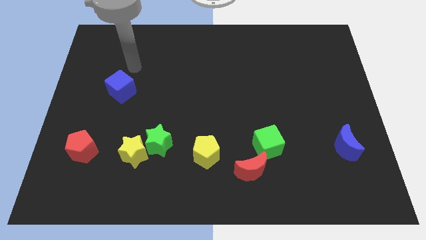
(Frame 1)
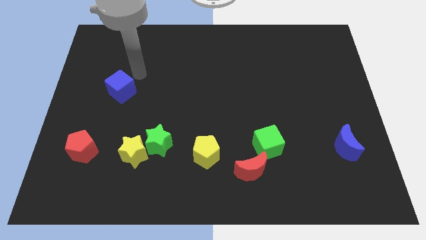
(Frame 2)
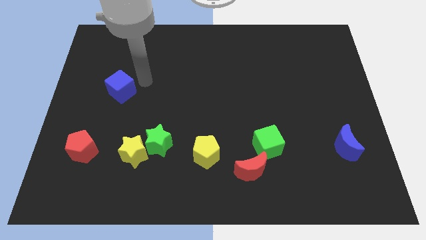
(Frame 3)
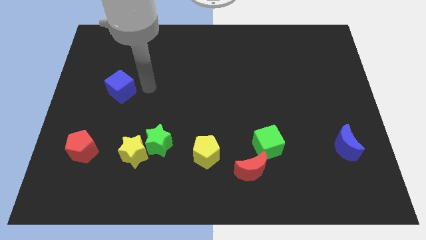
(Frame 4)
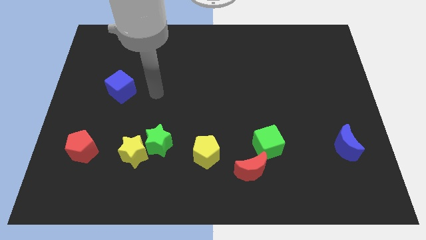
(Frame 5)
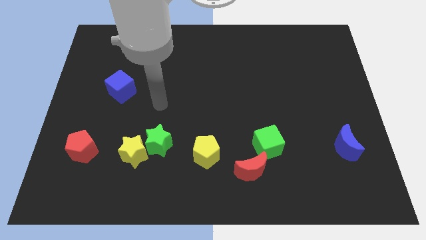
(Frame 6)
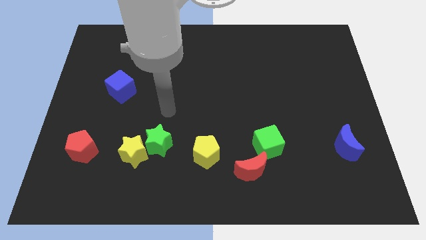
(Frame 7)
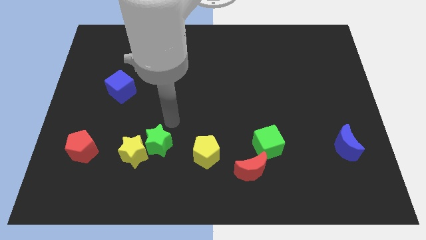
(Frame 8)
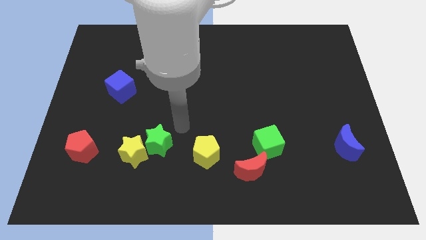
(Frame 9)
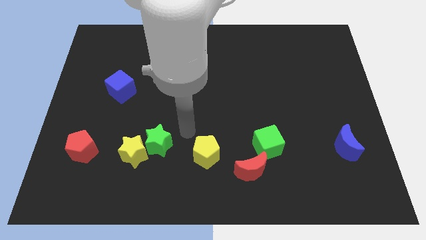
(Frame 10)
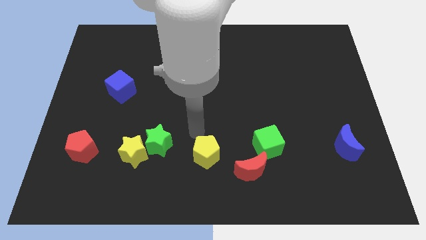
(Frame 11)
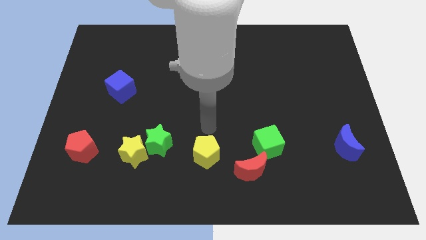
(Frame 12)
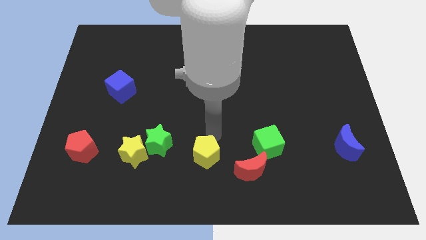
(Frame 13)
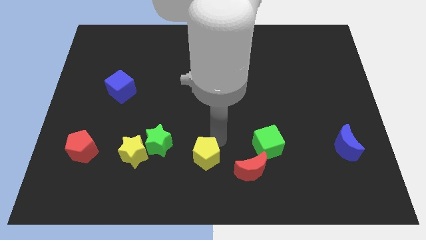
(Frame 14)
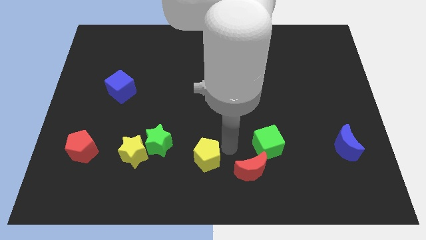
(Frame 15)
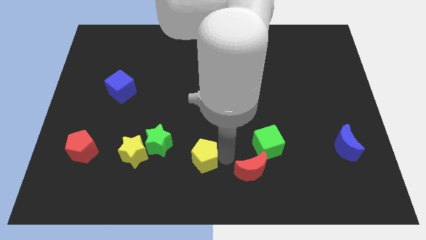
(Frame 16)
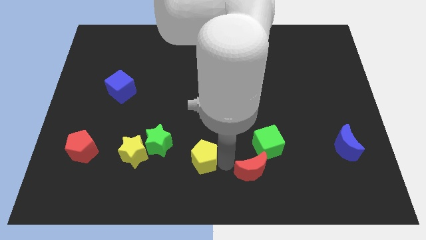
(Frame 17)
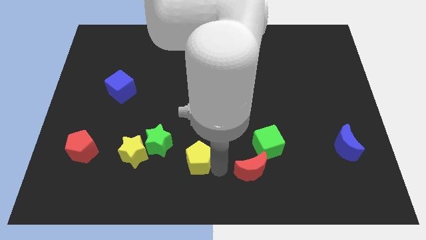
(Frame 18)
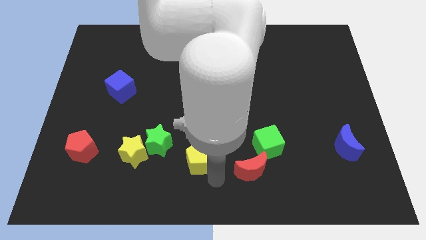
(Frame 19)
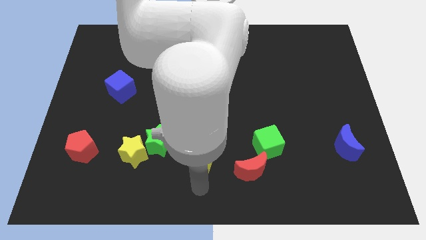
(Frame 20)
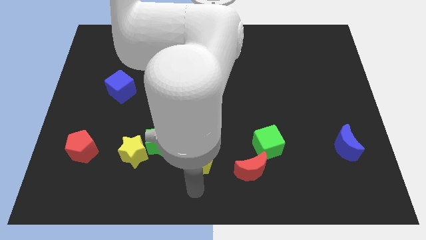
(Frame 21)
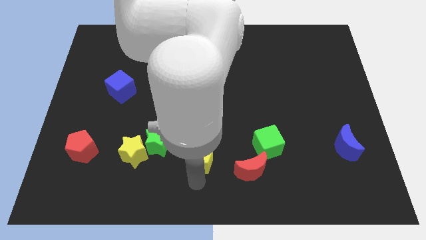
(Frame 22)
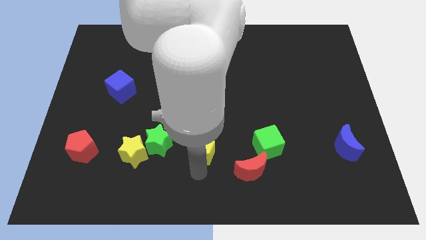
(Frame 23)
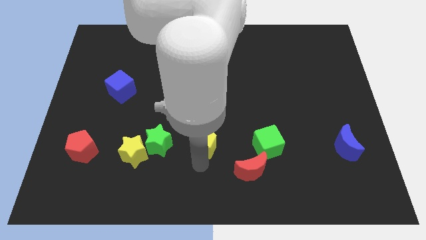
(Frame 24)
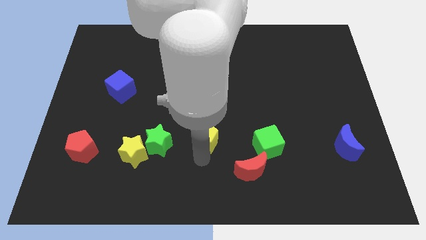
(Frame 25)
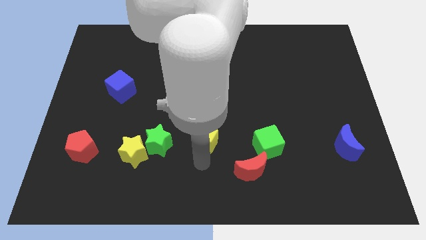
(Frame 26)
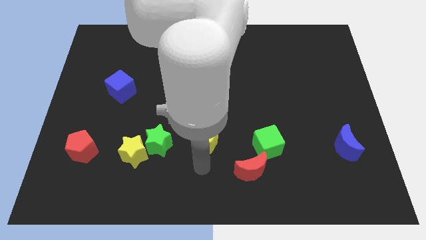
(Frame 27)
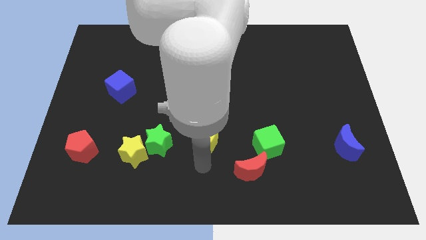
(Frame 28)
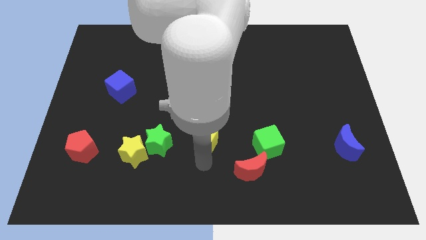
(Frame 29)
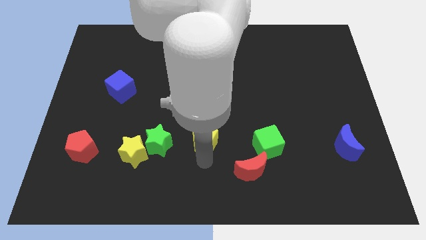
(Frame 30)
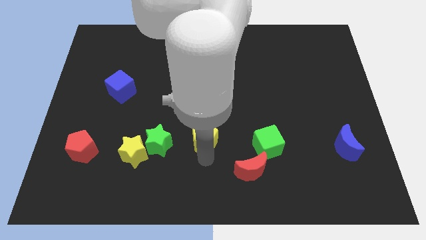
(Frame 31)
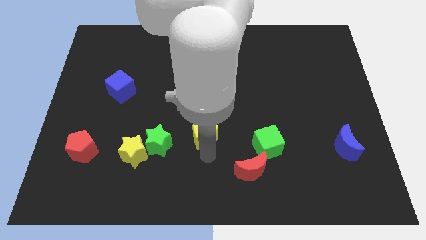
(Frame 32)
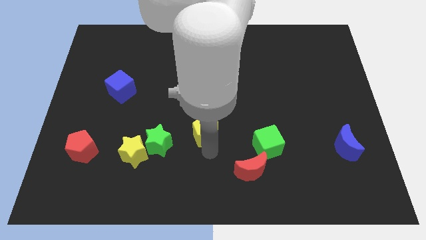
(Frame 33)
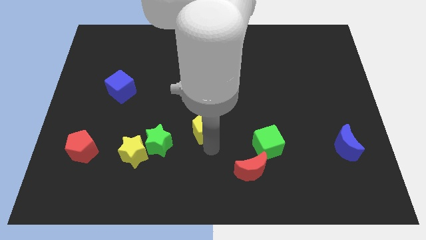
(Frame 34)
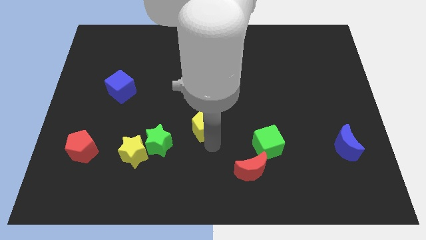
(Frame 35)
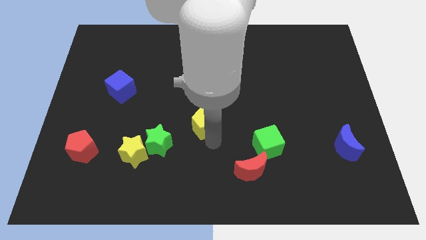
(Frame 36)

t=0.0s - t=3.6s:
slightly push the yellow pentagon upwards

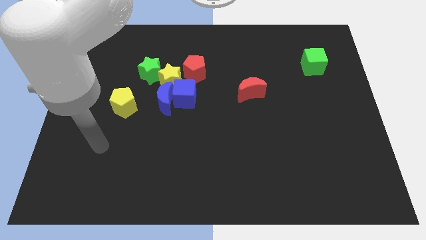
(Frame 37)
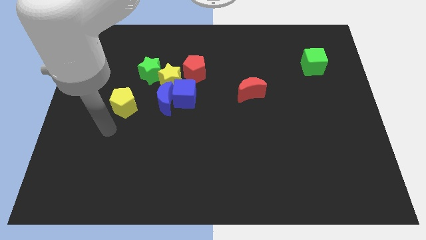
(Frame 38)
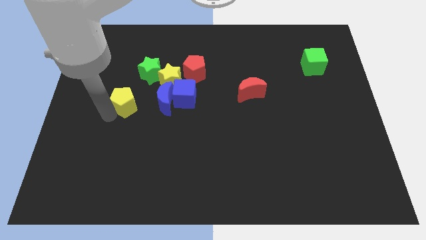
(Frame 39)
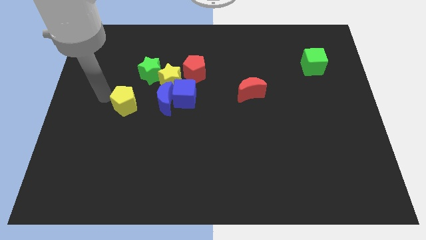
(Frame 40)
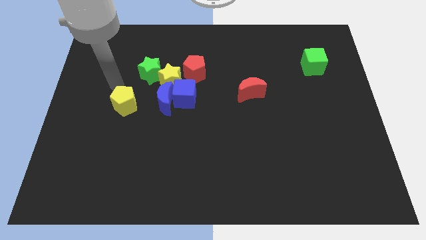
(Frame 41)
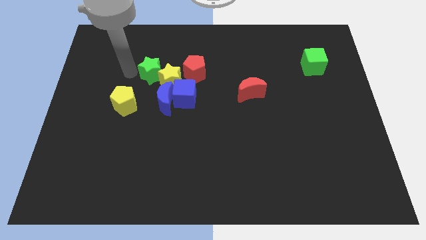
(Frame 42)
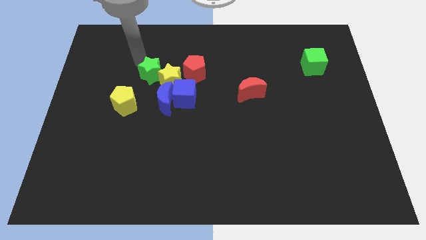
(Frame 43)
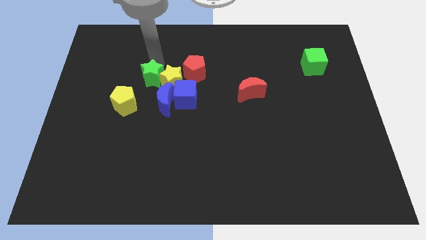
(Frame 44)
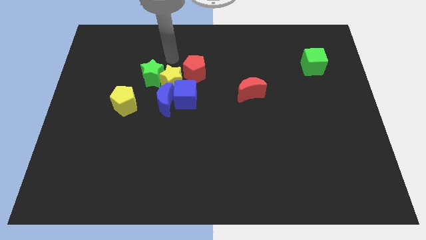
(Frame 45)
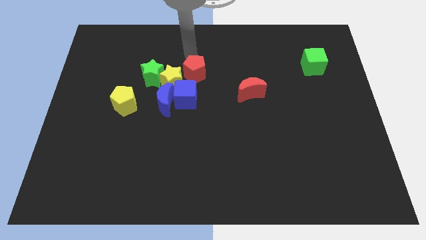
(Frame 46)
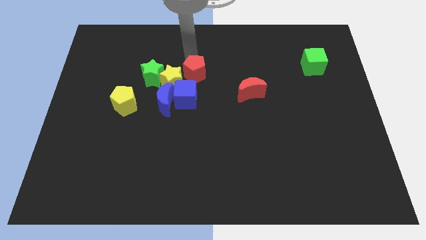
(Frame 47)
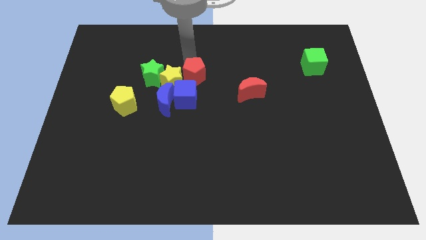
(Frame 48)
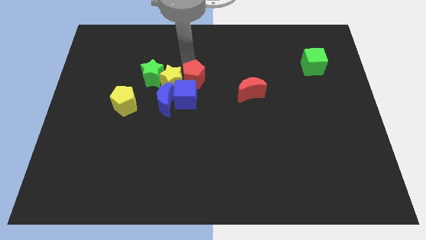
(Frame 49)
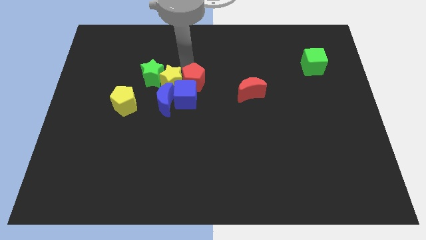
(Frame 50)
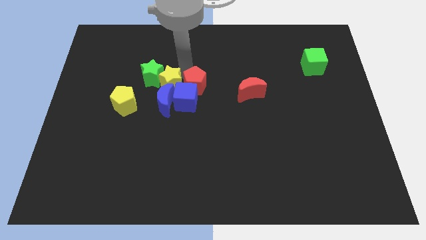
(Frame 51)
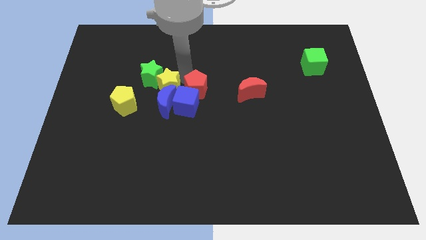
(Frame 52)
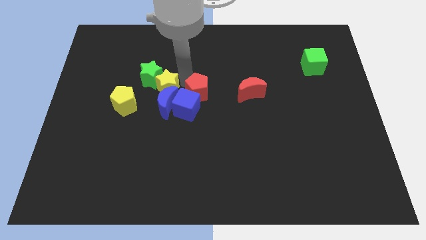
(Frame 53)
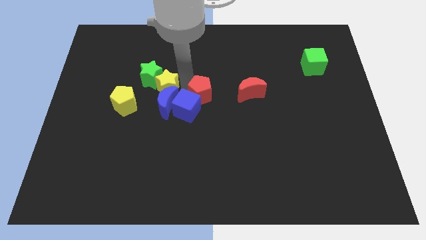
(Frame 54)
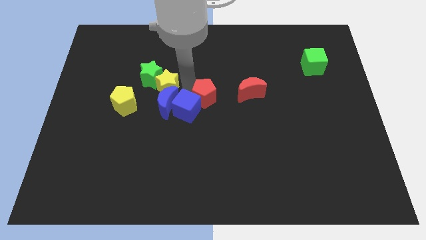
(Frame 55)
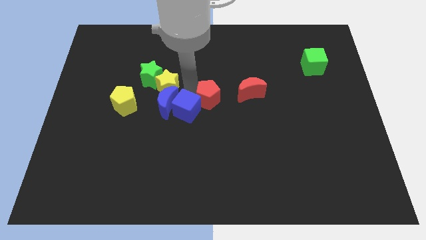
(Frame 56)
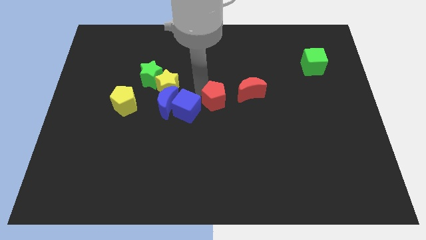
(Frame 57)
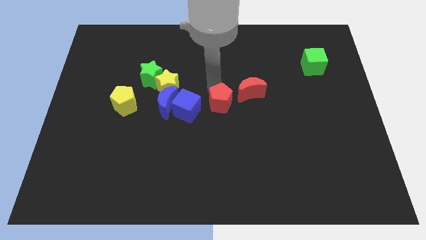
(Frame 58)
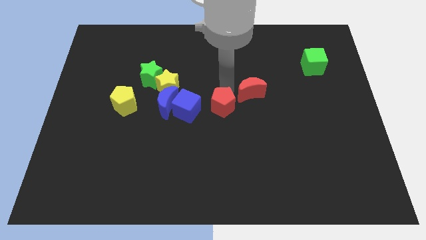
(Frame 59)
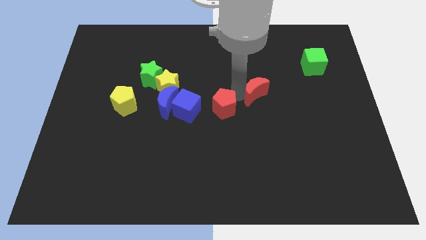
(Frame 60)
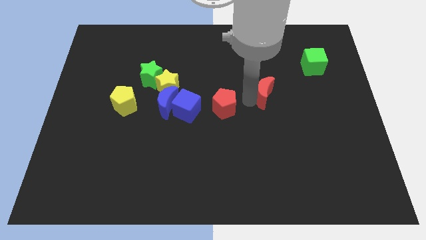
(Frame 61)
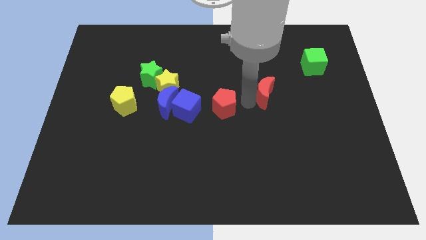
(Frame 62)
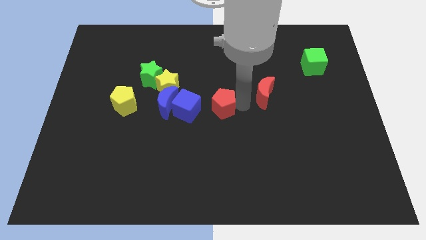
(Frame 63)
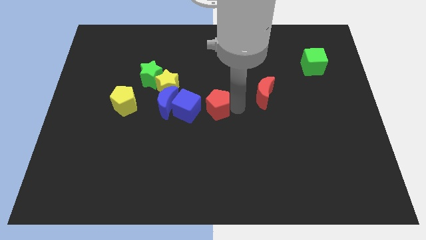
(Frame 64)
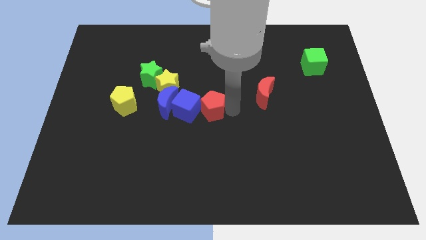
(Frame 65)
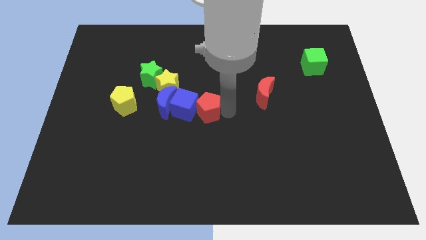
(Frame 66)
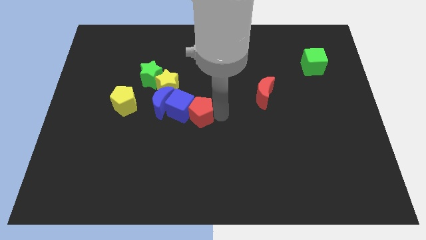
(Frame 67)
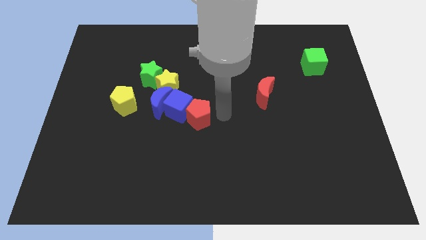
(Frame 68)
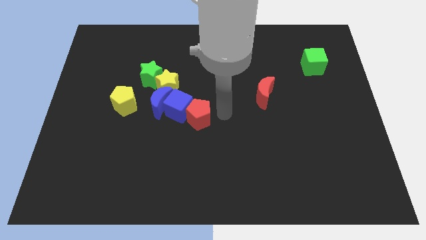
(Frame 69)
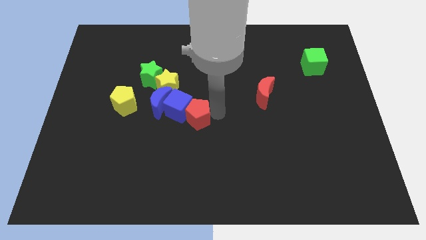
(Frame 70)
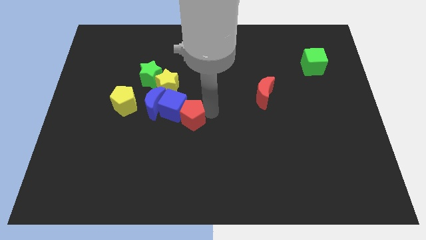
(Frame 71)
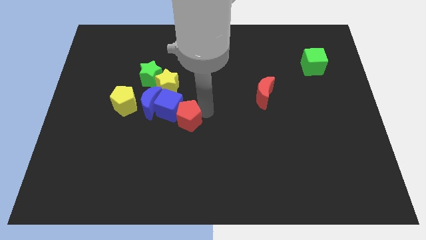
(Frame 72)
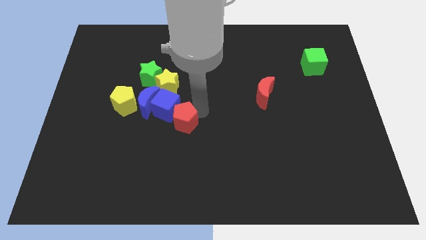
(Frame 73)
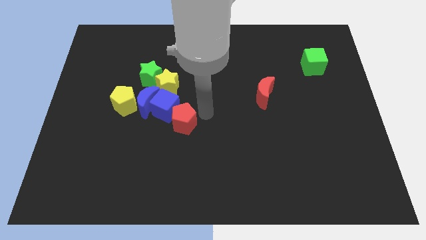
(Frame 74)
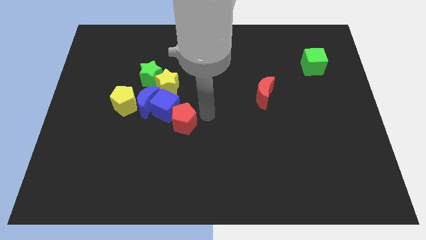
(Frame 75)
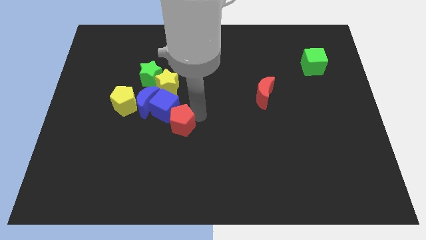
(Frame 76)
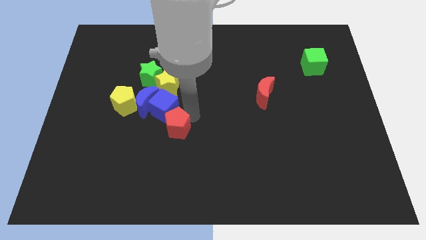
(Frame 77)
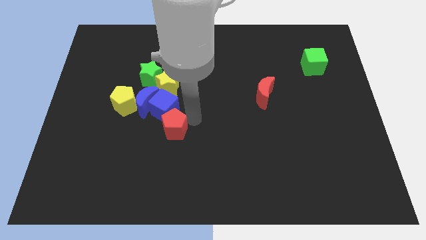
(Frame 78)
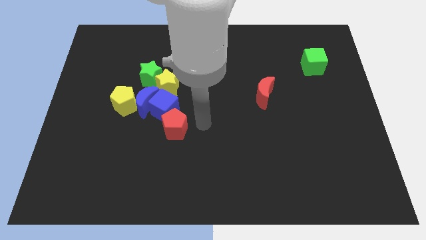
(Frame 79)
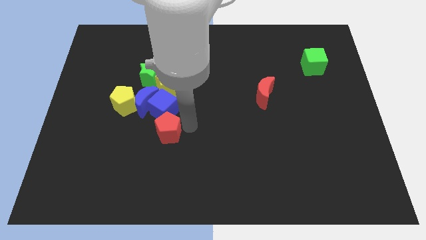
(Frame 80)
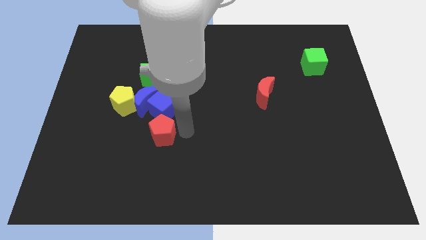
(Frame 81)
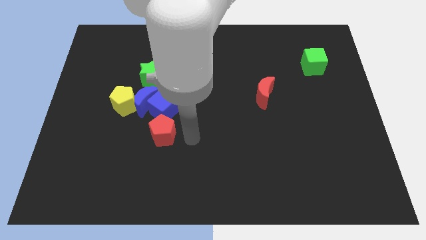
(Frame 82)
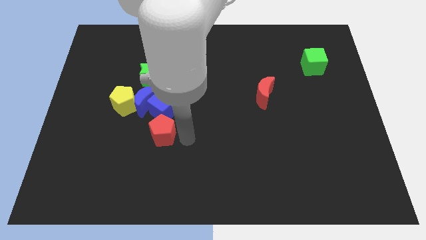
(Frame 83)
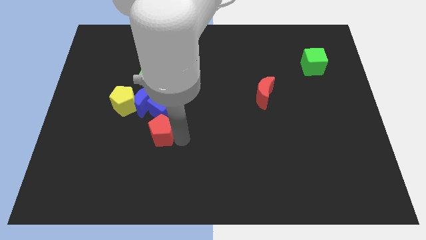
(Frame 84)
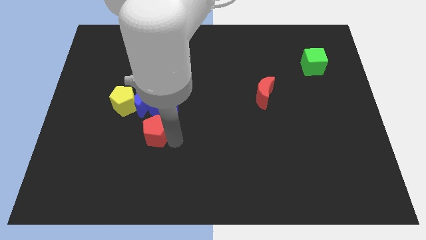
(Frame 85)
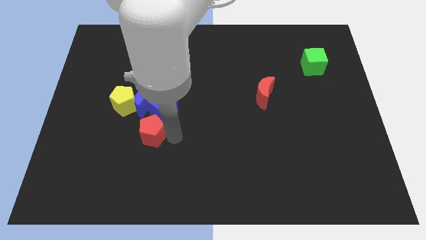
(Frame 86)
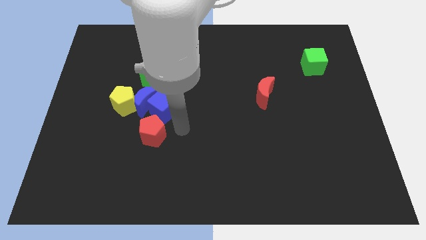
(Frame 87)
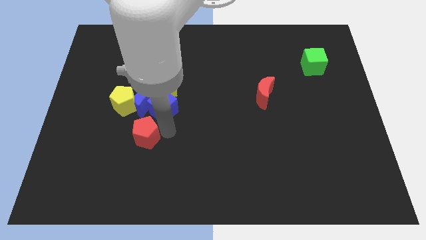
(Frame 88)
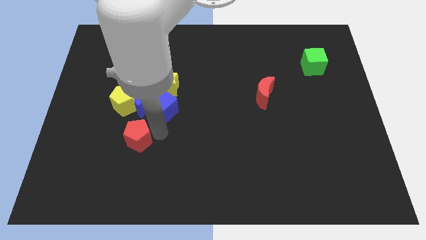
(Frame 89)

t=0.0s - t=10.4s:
move the red pentagon downwards and then left
